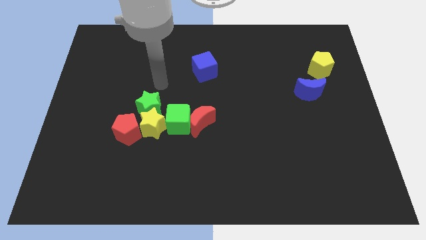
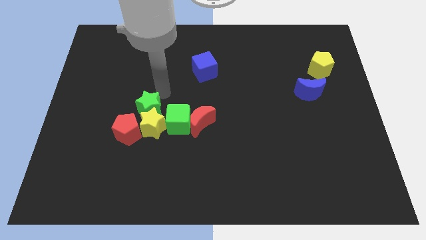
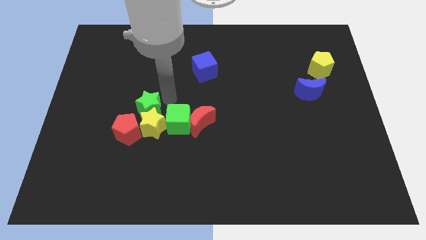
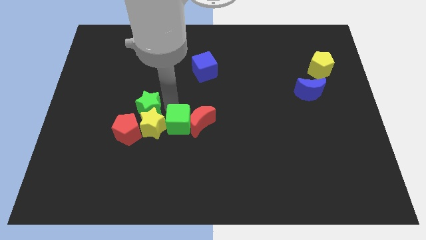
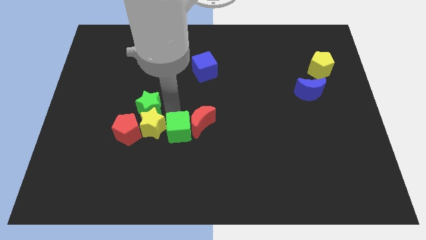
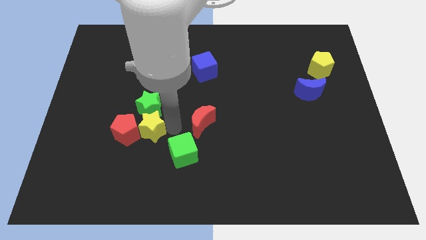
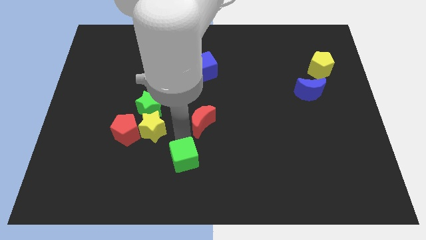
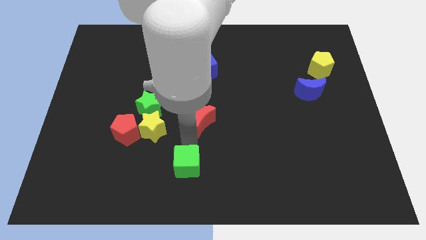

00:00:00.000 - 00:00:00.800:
separate the red moon from the green cube

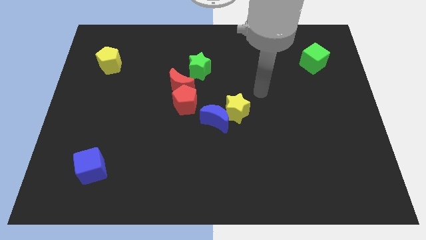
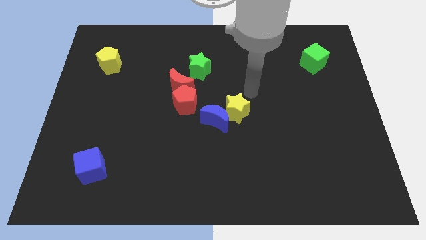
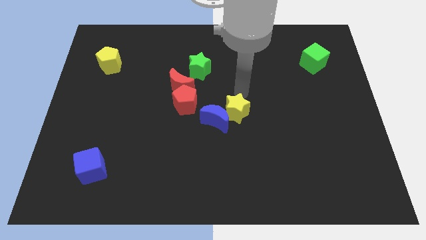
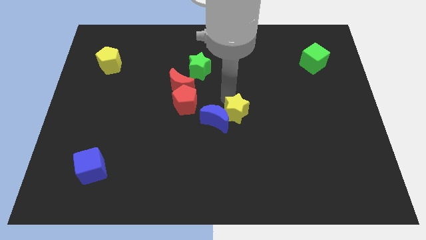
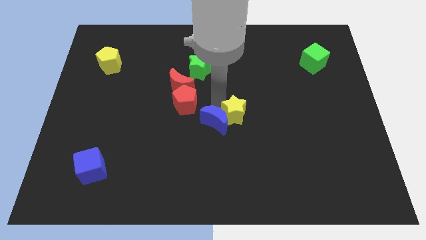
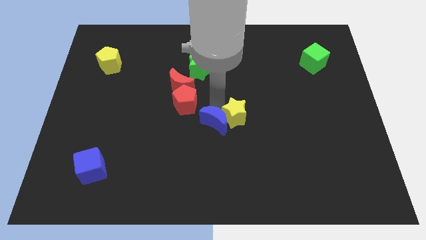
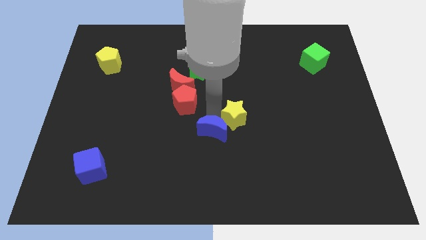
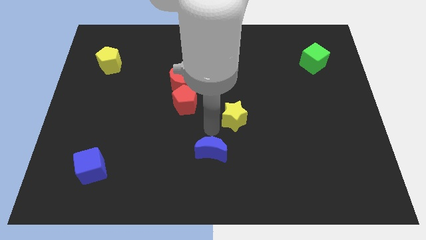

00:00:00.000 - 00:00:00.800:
separate the yellow star from the blue moon

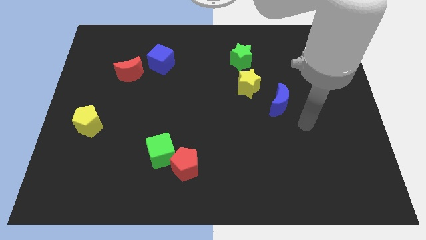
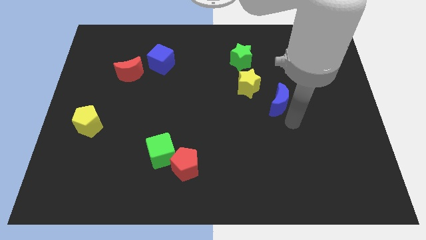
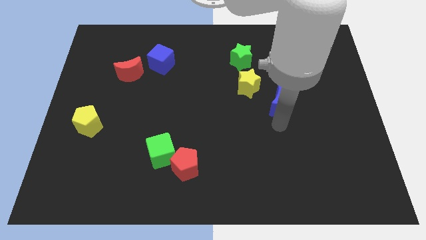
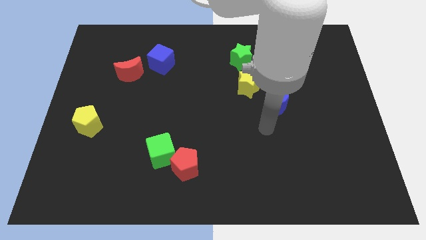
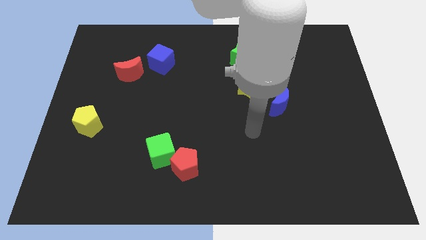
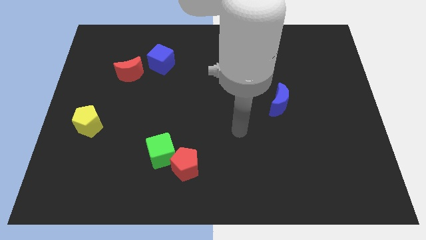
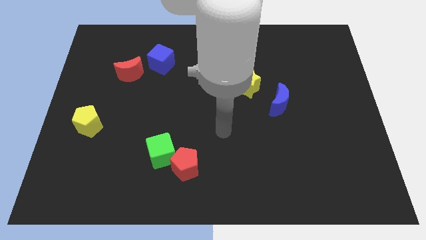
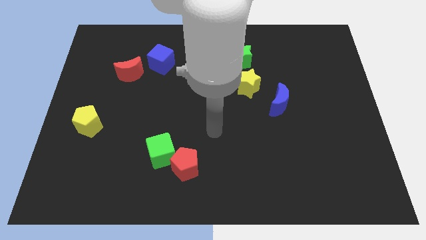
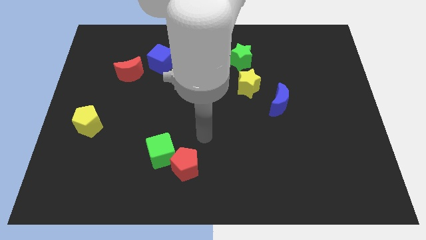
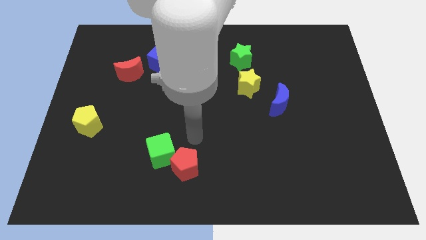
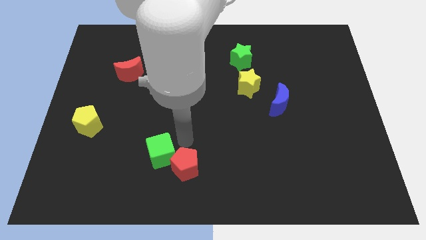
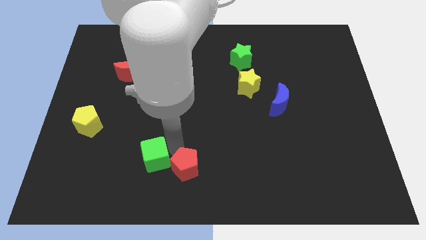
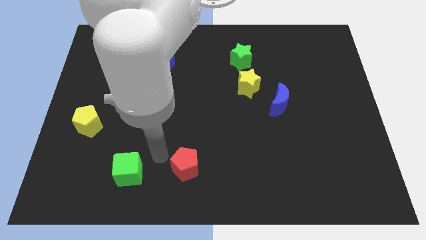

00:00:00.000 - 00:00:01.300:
pull the red pentagon apart from the green cube

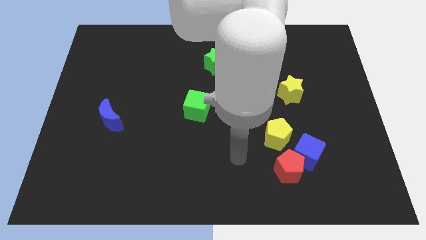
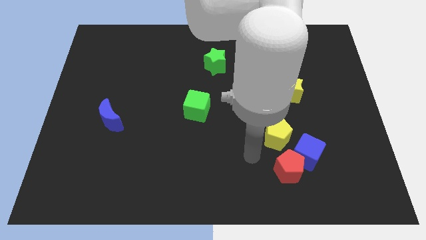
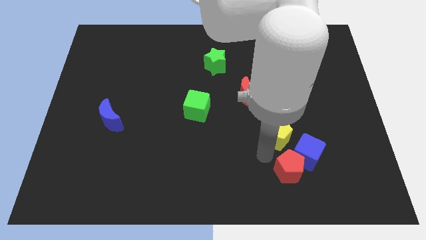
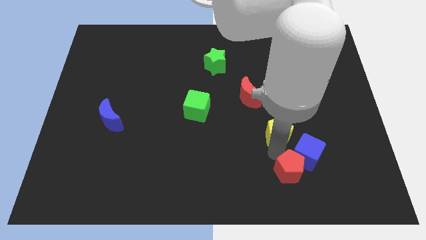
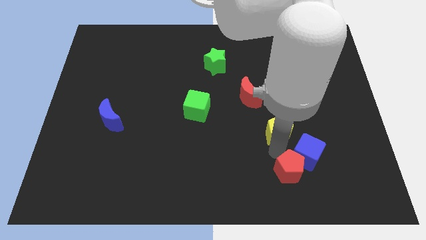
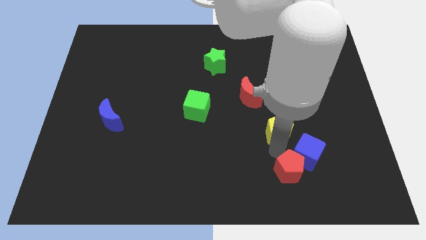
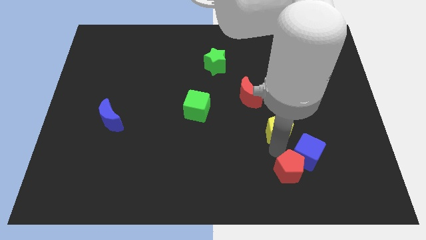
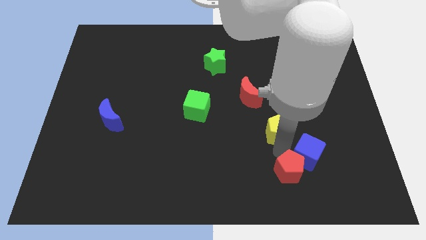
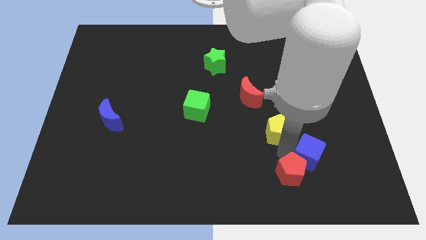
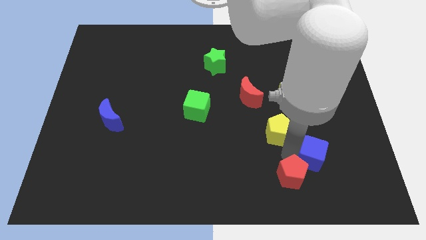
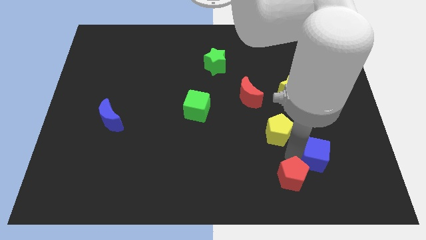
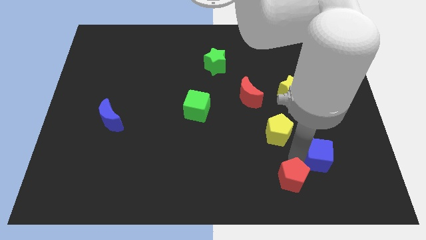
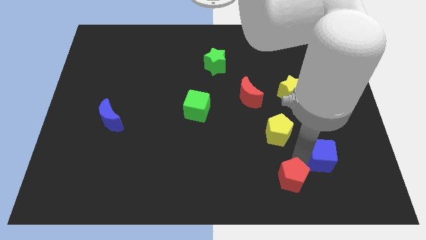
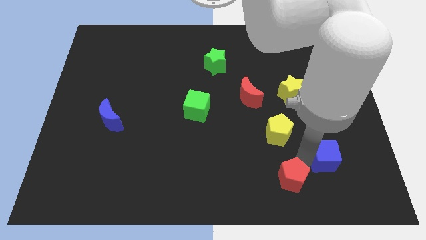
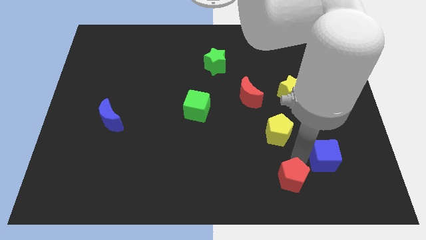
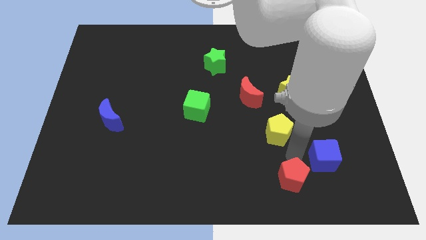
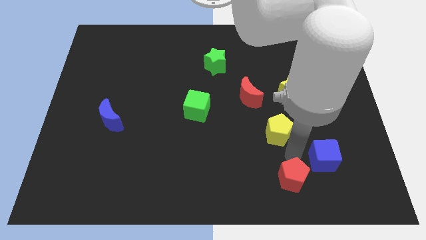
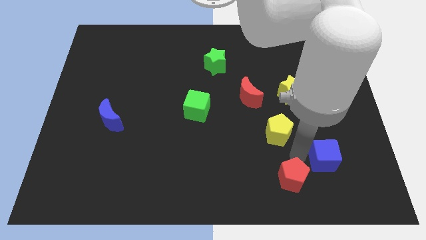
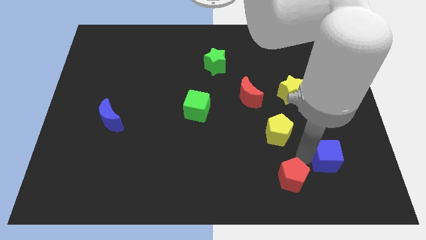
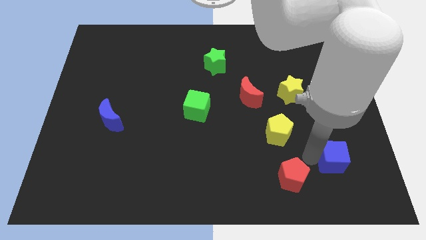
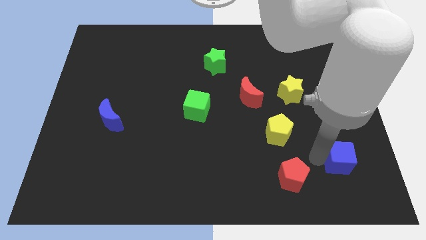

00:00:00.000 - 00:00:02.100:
pull the blue cube apart from the red pentagon and yellow pentagon

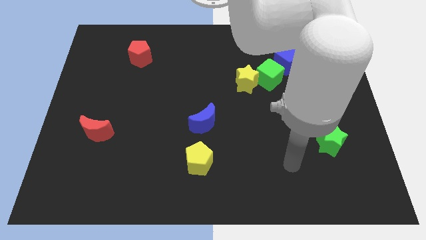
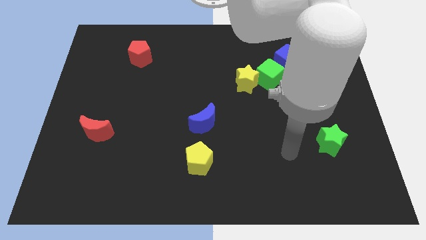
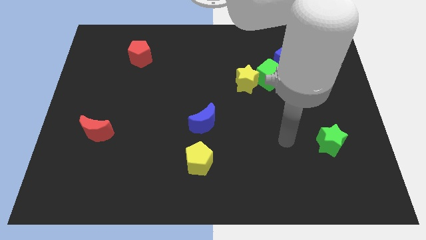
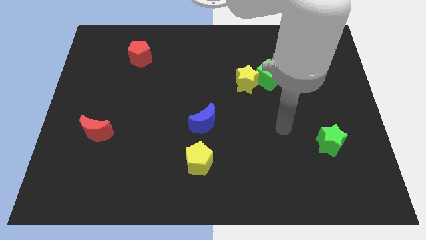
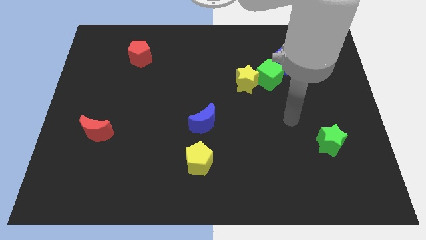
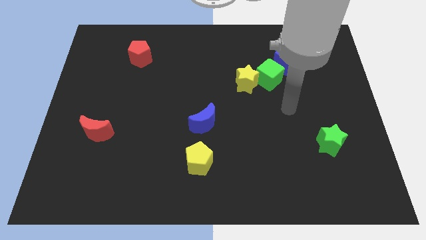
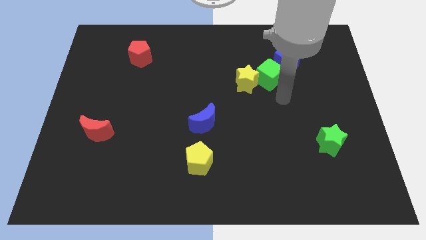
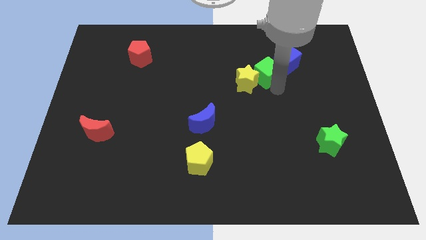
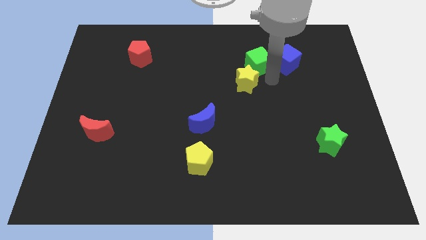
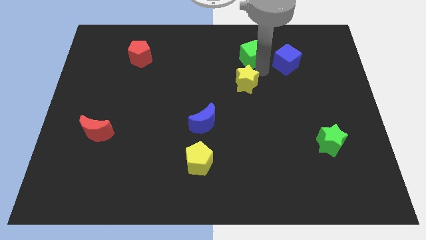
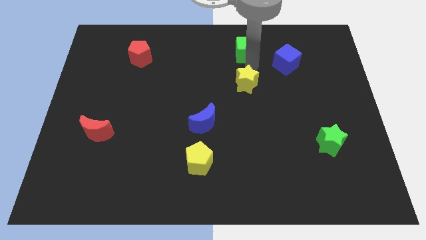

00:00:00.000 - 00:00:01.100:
separate the yellow star from the green cube

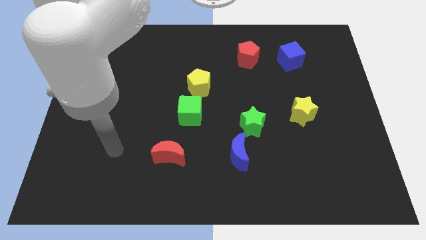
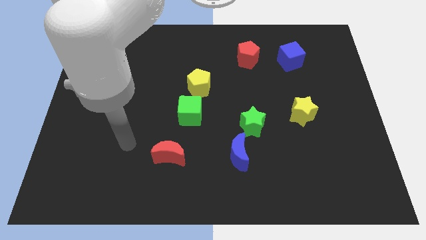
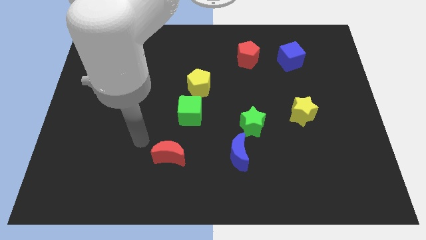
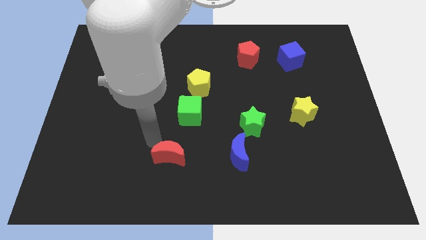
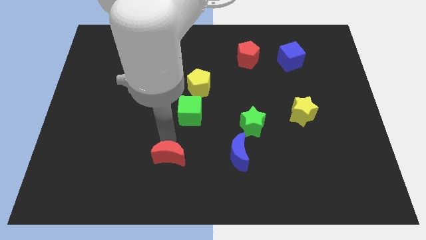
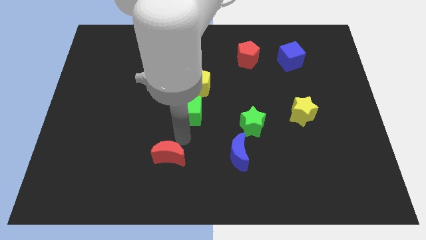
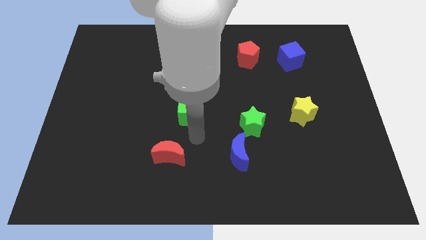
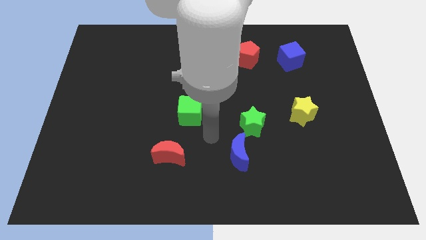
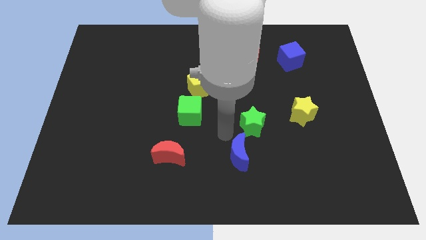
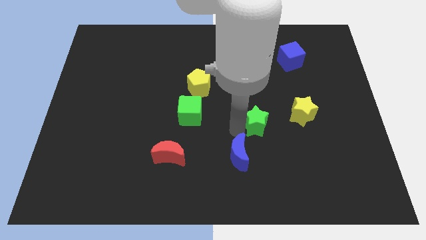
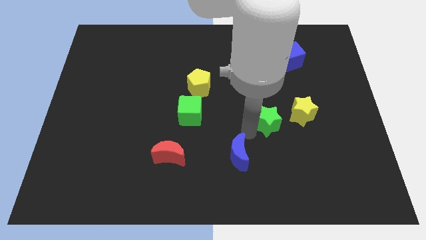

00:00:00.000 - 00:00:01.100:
separate the blue moon from the green star

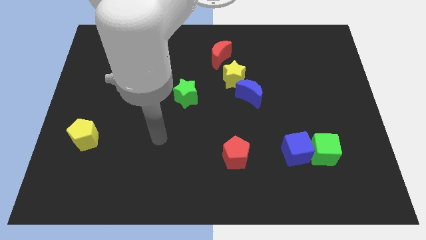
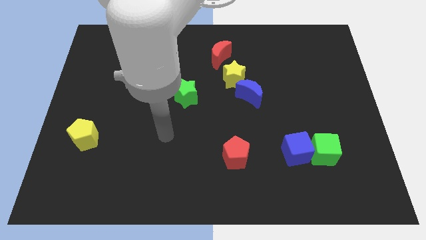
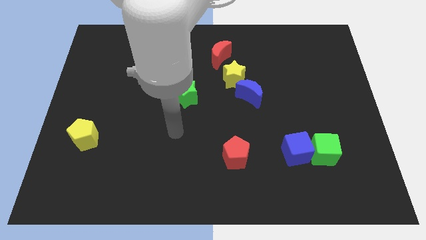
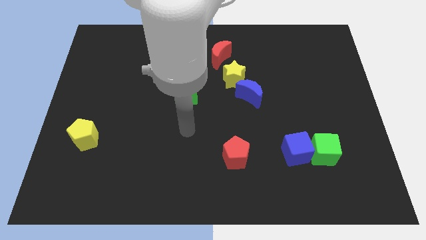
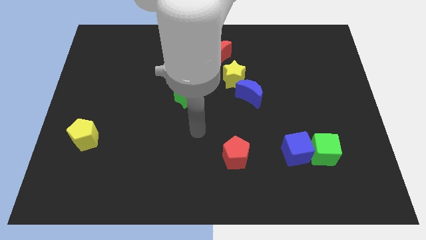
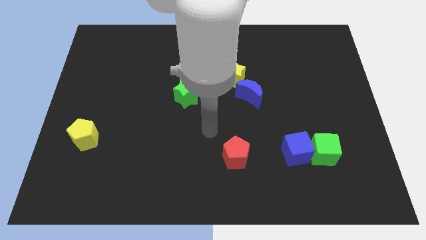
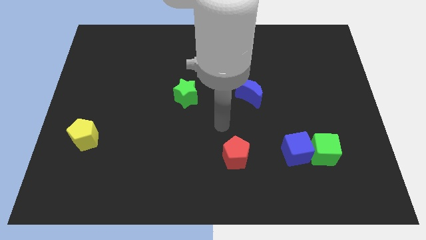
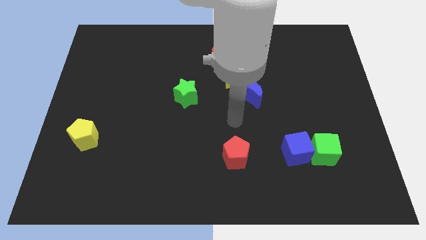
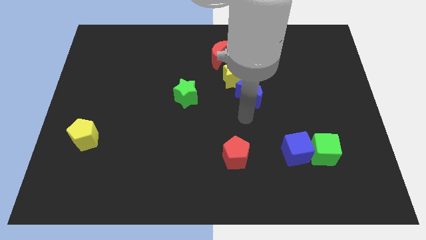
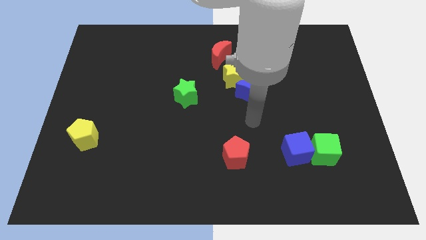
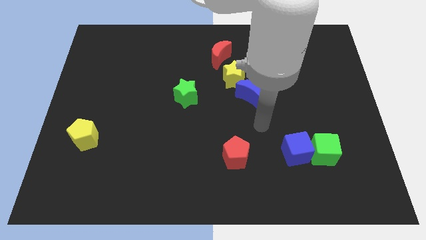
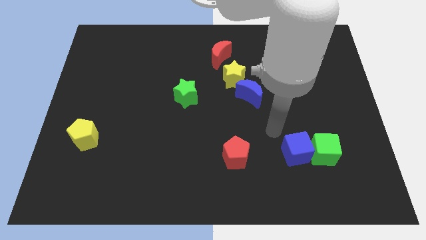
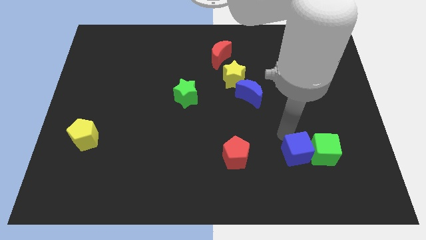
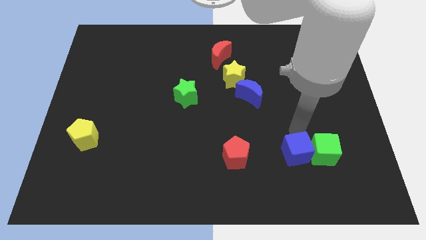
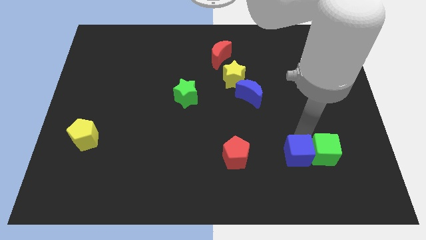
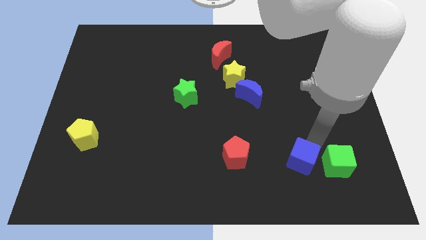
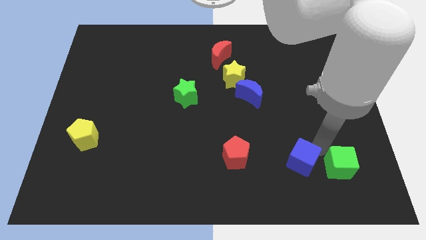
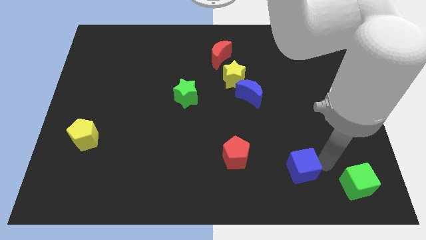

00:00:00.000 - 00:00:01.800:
separate the blue cube from the green cube

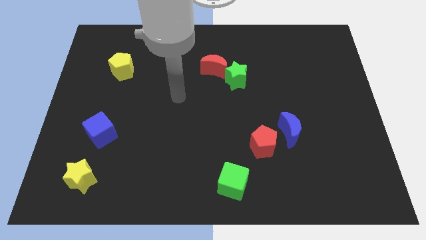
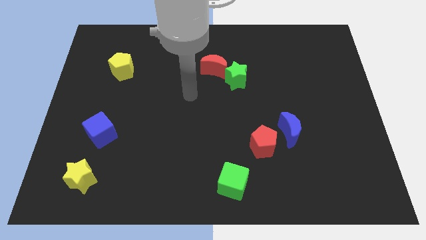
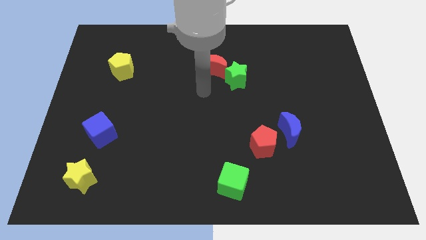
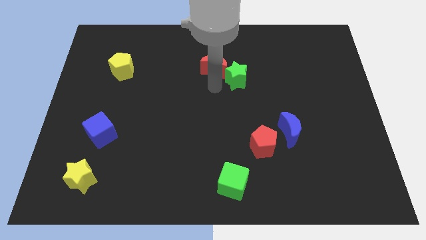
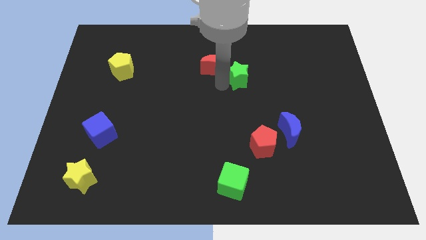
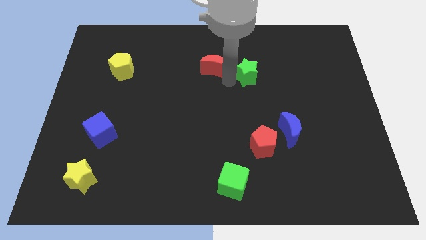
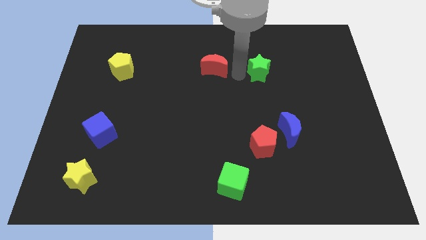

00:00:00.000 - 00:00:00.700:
move the red moon away from the green star
